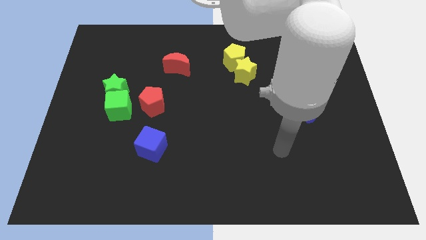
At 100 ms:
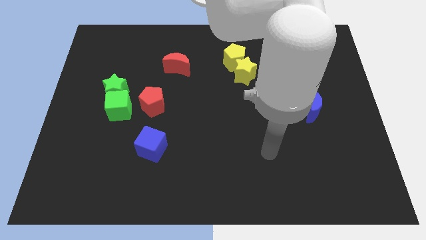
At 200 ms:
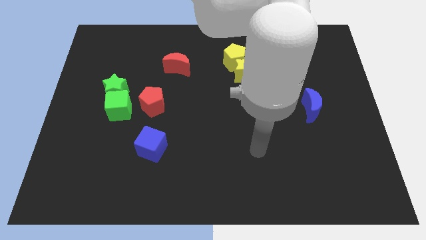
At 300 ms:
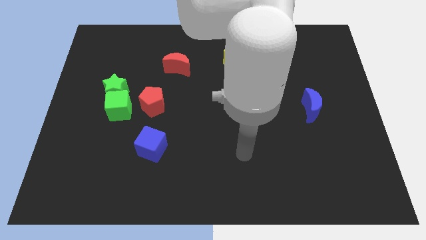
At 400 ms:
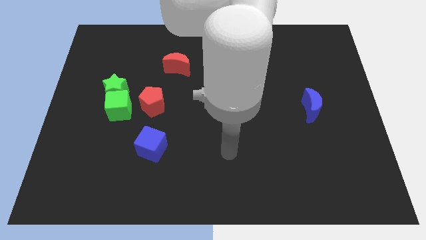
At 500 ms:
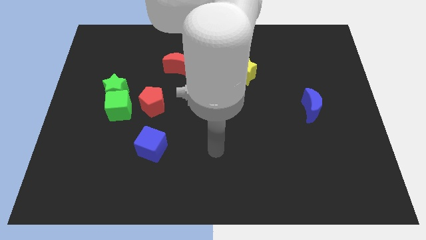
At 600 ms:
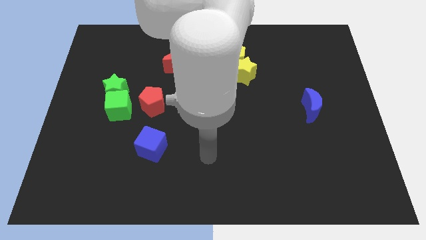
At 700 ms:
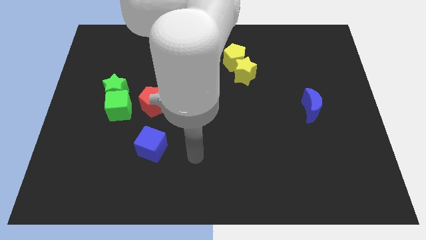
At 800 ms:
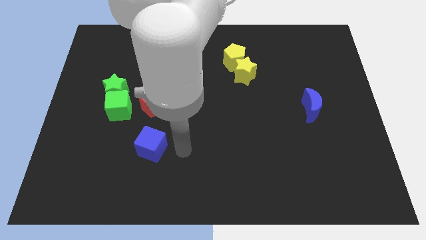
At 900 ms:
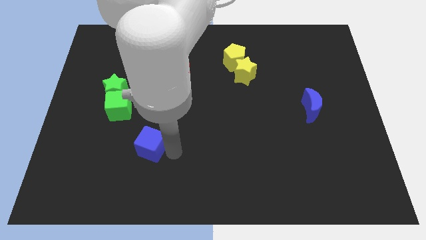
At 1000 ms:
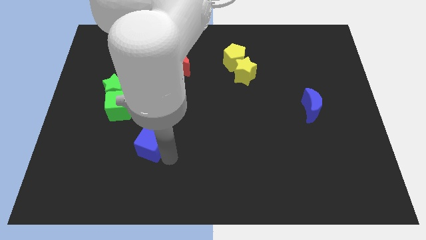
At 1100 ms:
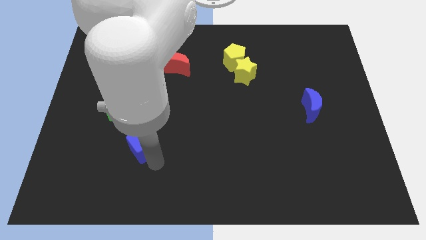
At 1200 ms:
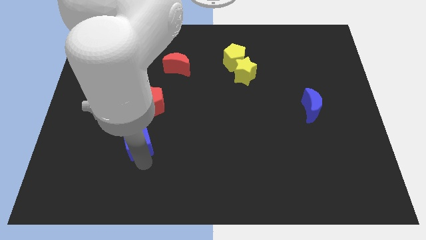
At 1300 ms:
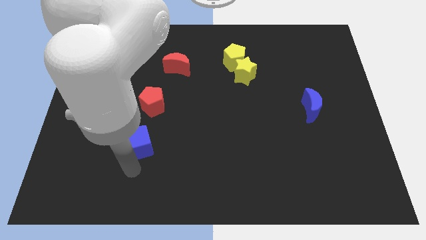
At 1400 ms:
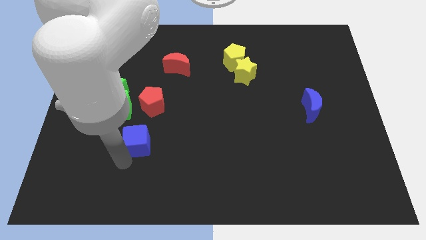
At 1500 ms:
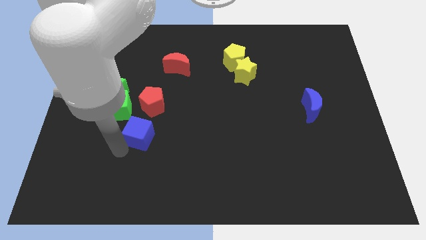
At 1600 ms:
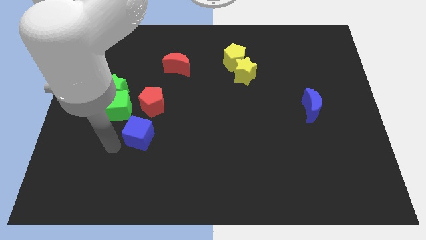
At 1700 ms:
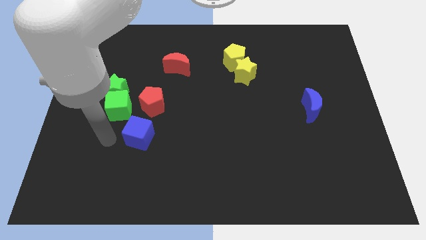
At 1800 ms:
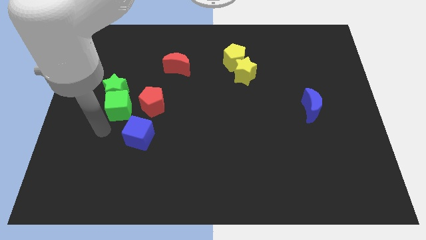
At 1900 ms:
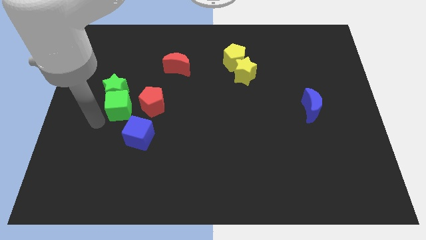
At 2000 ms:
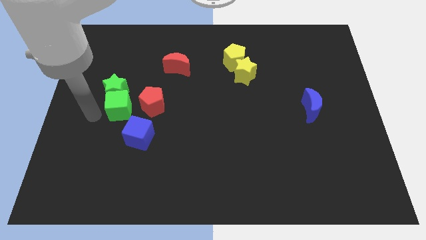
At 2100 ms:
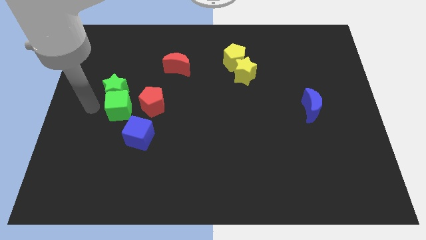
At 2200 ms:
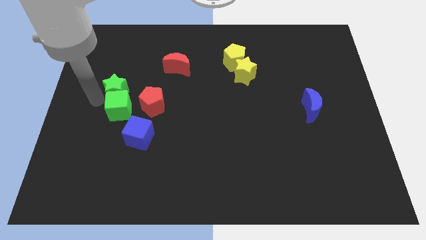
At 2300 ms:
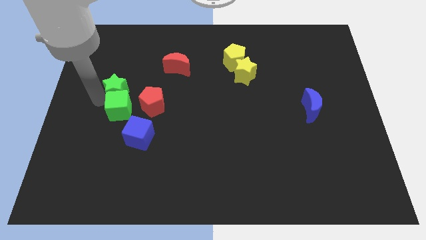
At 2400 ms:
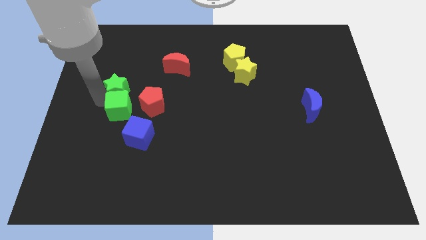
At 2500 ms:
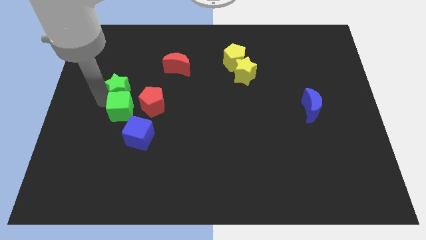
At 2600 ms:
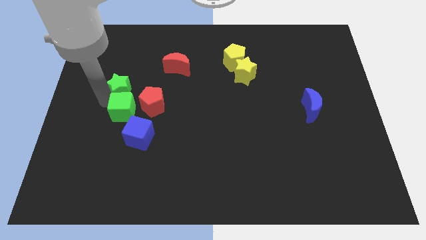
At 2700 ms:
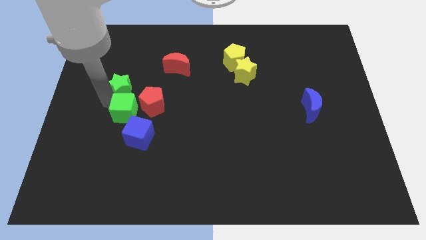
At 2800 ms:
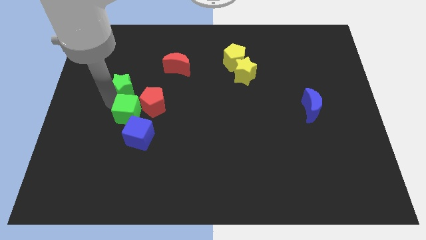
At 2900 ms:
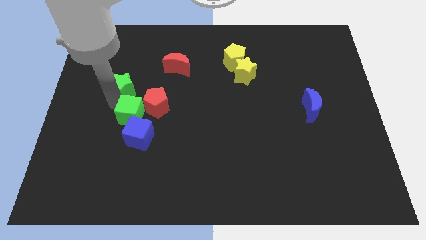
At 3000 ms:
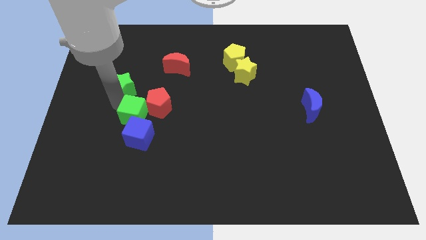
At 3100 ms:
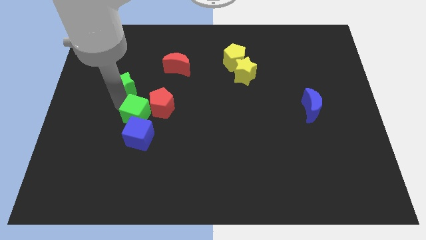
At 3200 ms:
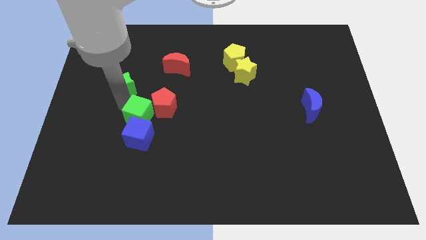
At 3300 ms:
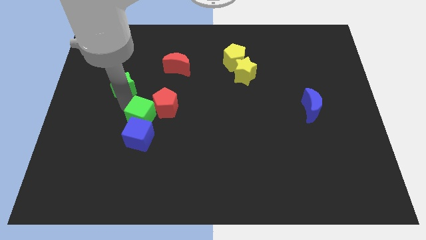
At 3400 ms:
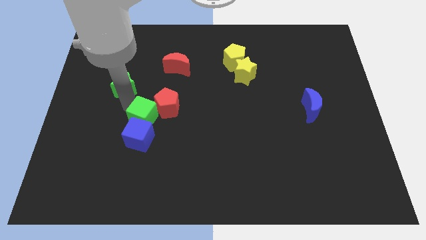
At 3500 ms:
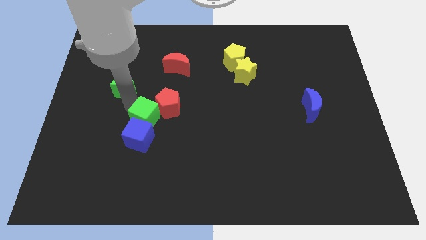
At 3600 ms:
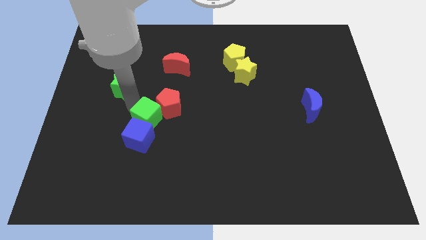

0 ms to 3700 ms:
slide the green cube a little bit to the right

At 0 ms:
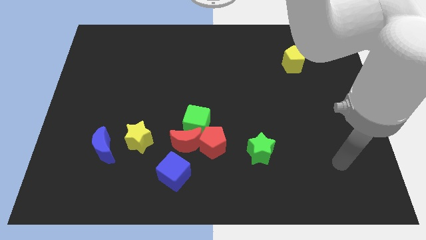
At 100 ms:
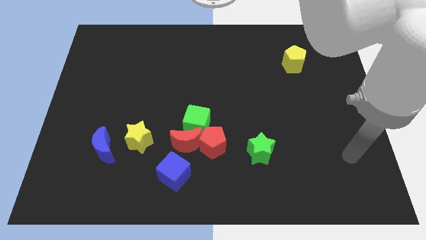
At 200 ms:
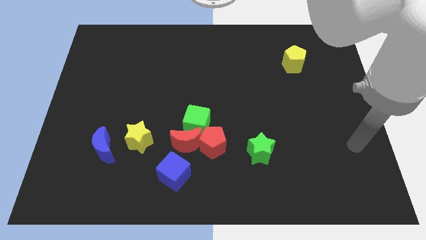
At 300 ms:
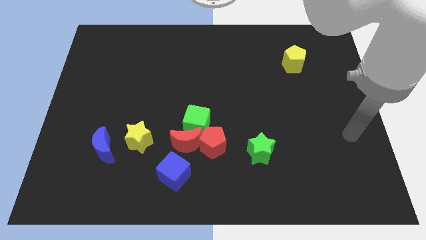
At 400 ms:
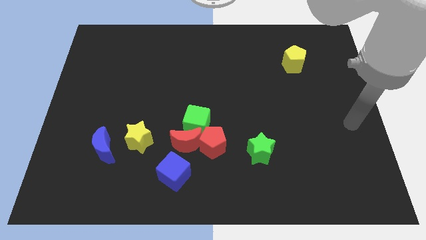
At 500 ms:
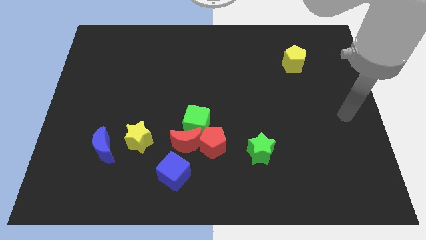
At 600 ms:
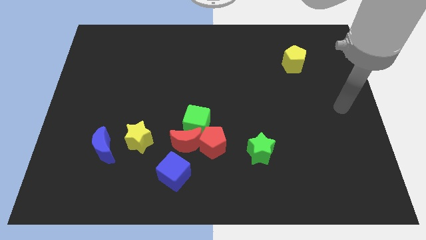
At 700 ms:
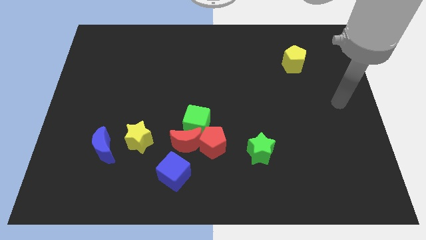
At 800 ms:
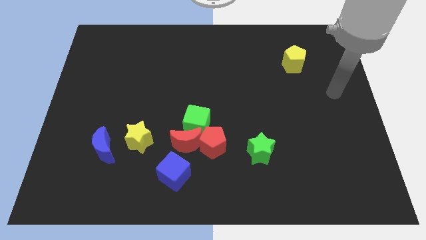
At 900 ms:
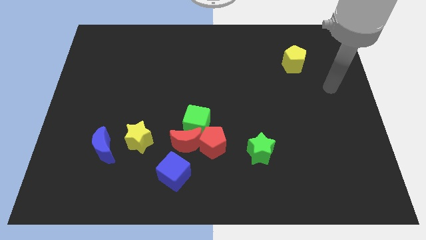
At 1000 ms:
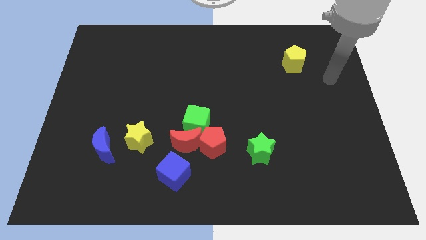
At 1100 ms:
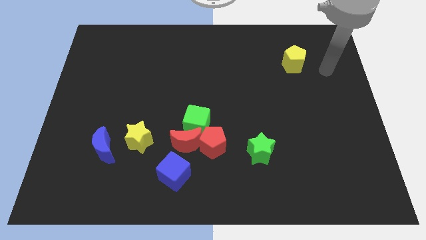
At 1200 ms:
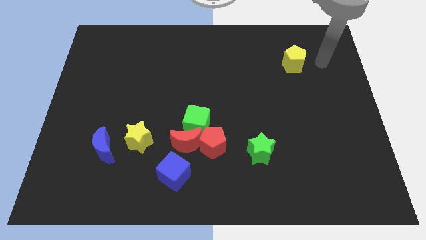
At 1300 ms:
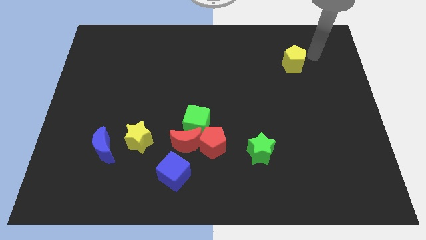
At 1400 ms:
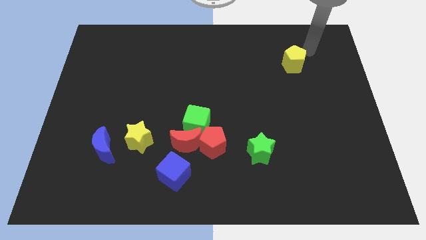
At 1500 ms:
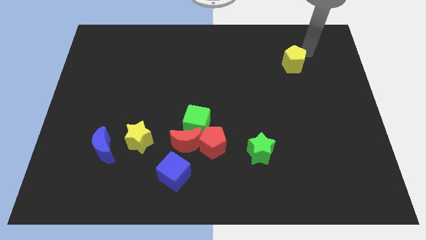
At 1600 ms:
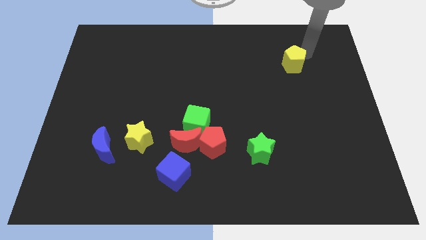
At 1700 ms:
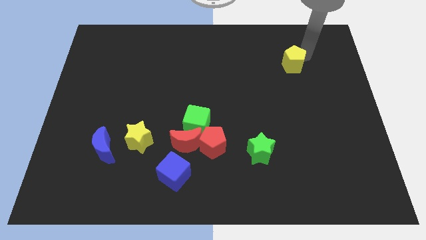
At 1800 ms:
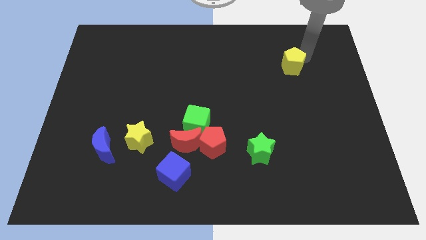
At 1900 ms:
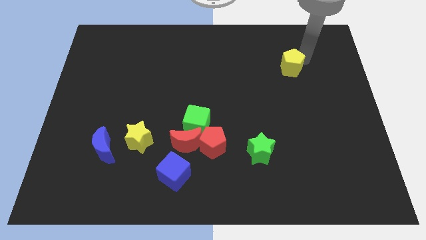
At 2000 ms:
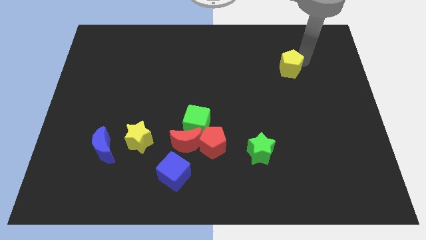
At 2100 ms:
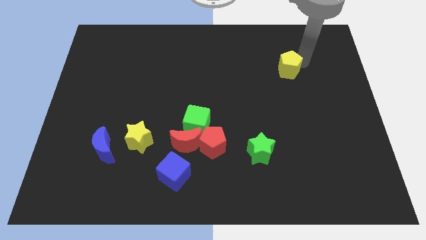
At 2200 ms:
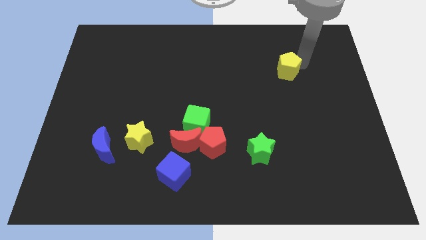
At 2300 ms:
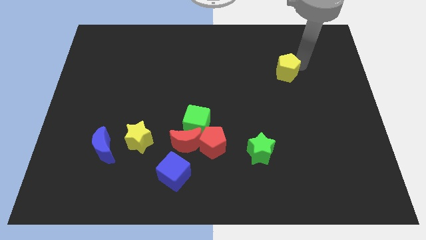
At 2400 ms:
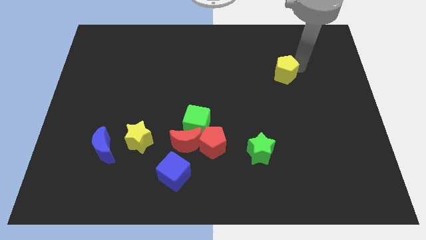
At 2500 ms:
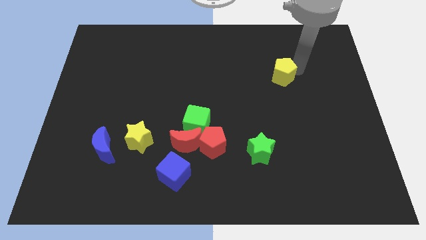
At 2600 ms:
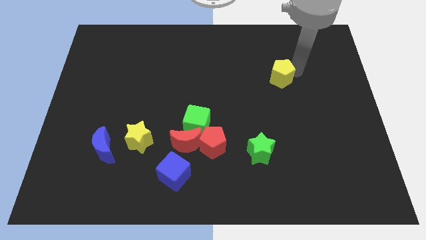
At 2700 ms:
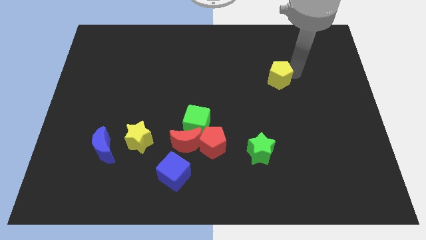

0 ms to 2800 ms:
push the yellow pentagon diagonally down and to the left somewhat

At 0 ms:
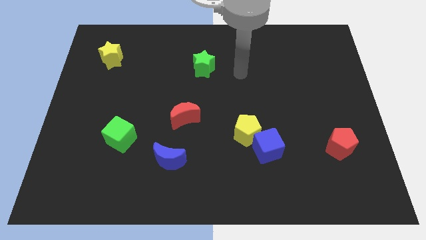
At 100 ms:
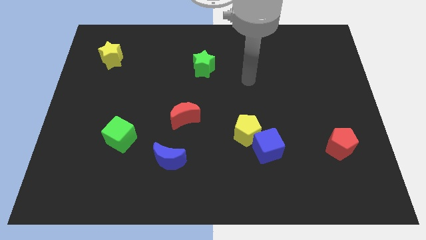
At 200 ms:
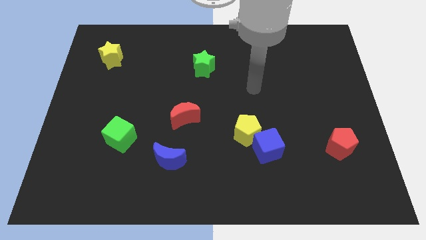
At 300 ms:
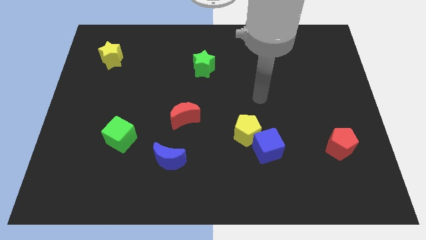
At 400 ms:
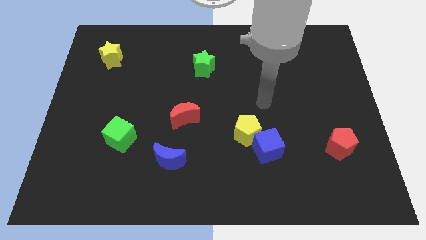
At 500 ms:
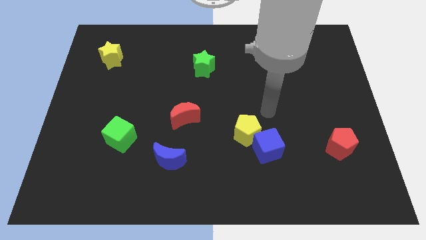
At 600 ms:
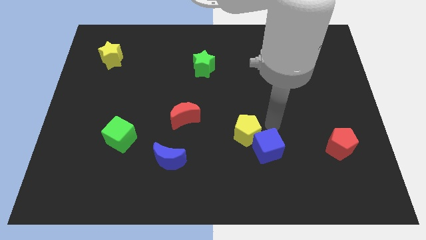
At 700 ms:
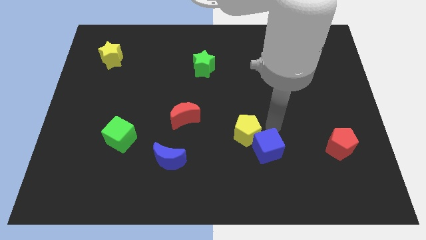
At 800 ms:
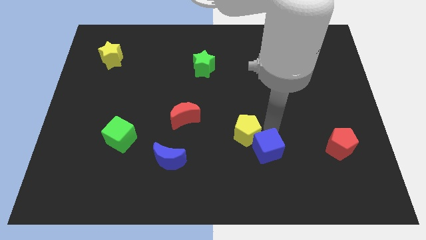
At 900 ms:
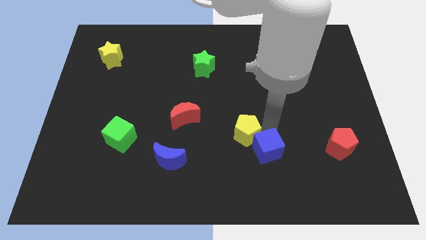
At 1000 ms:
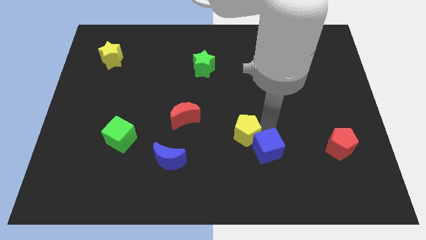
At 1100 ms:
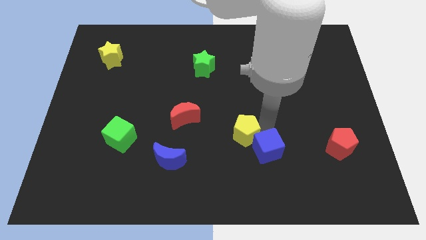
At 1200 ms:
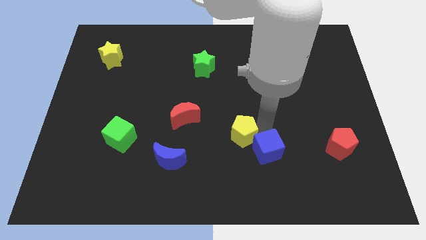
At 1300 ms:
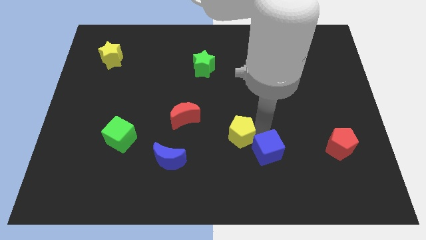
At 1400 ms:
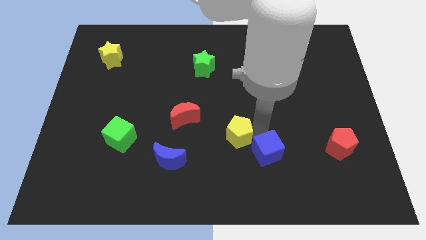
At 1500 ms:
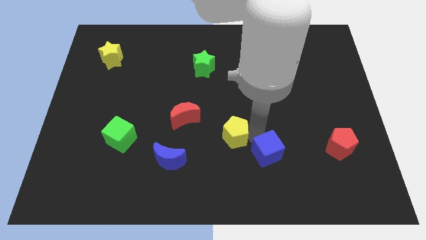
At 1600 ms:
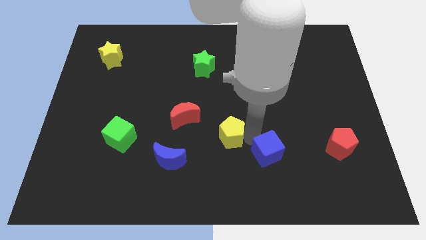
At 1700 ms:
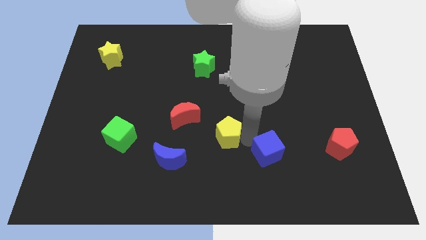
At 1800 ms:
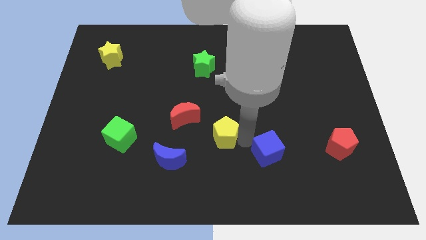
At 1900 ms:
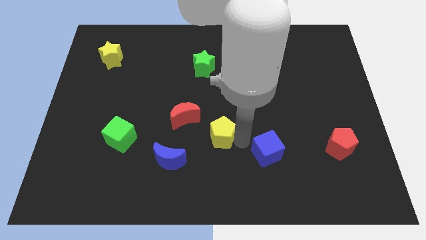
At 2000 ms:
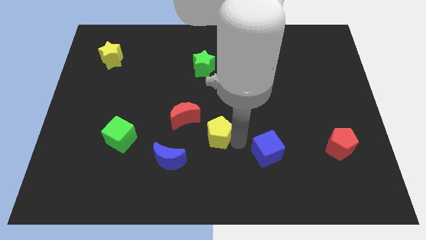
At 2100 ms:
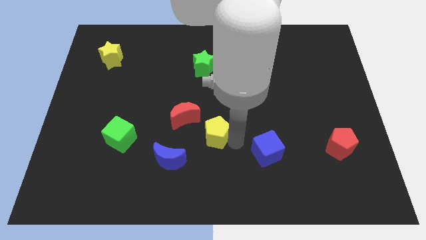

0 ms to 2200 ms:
slightly slide the yellow pentagon left
